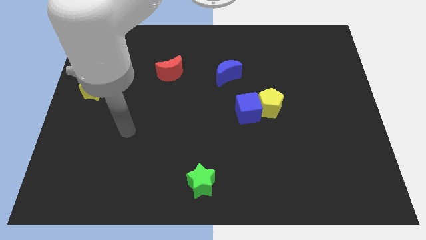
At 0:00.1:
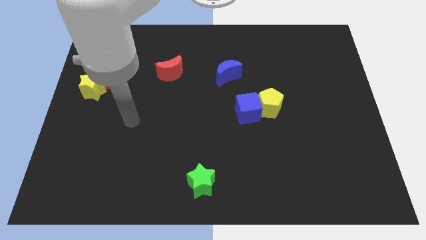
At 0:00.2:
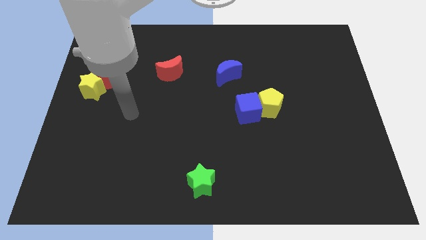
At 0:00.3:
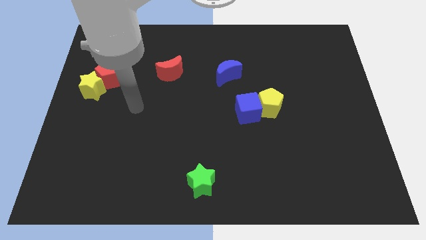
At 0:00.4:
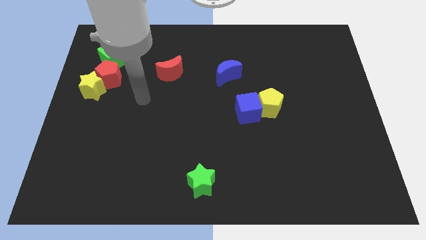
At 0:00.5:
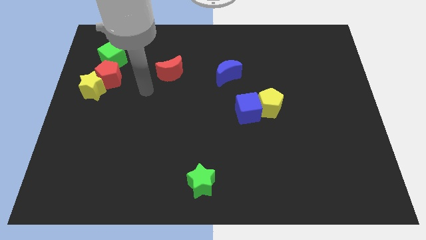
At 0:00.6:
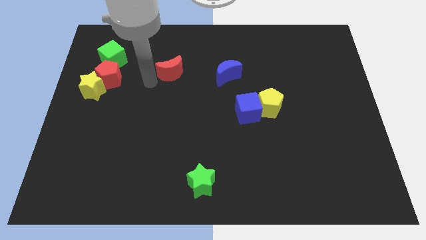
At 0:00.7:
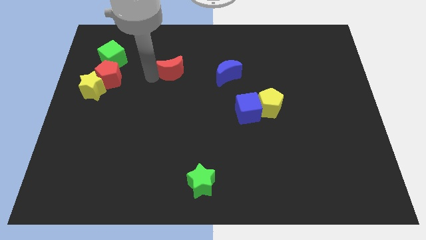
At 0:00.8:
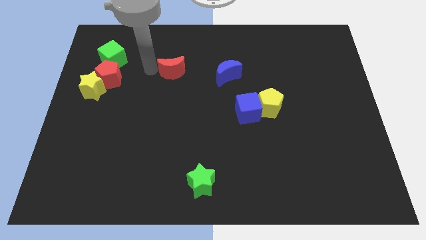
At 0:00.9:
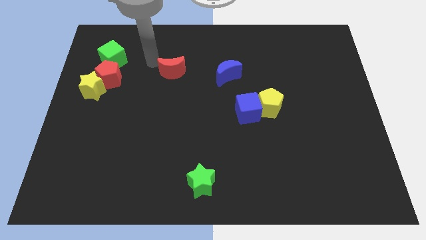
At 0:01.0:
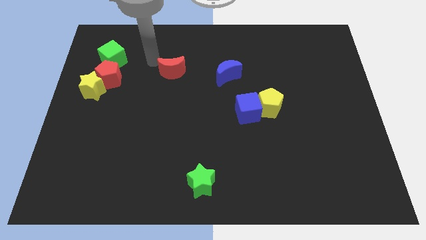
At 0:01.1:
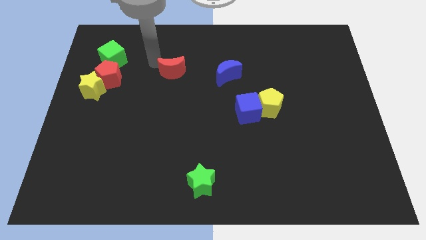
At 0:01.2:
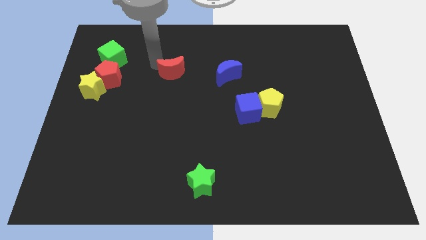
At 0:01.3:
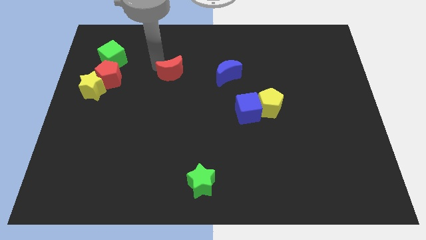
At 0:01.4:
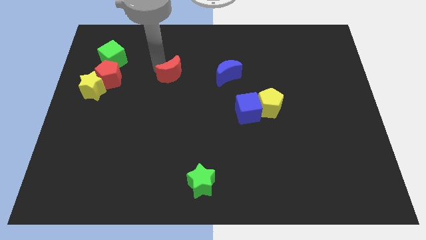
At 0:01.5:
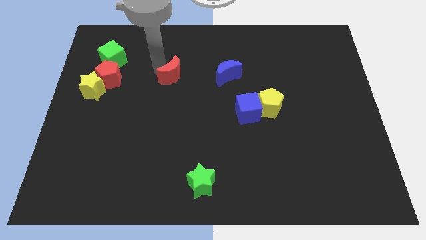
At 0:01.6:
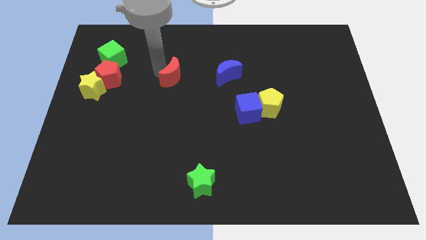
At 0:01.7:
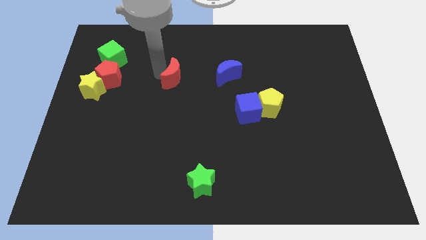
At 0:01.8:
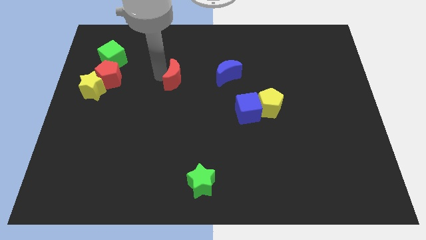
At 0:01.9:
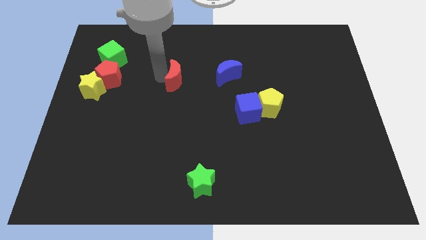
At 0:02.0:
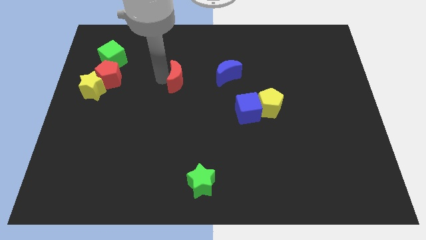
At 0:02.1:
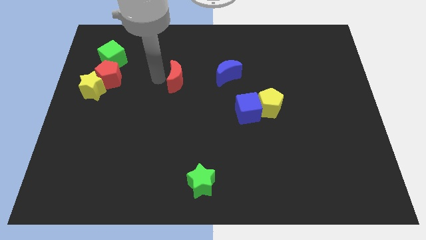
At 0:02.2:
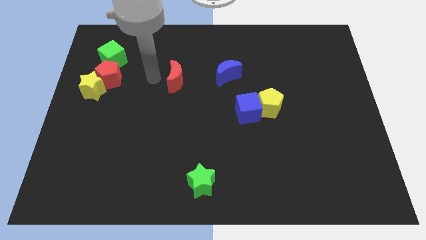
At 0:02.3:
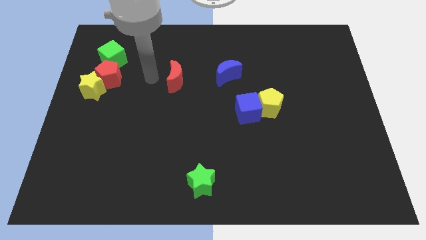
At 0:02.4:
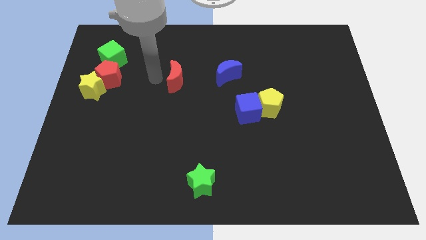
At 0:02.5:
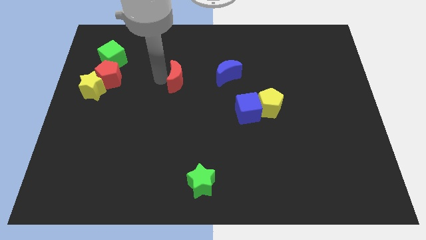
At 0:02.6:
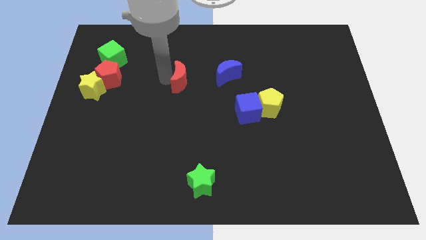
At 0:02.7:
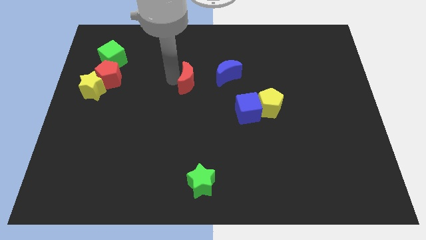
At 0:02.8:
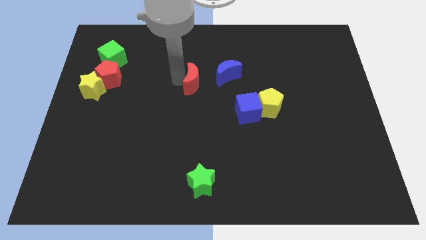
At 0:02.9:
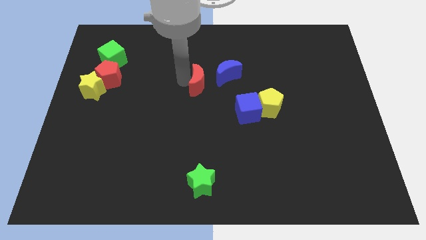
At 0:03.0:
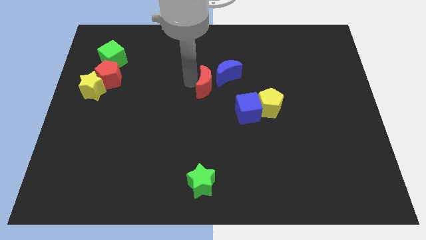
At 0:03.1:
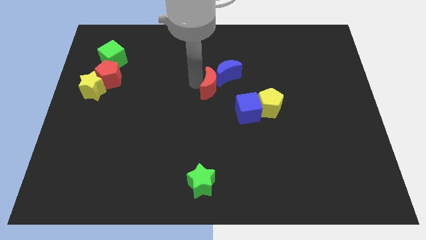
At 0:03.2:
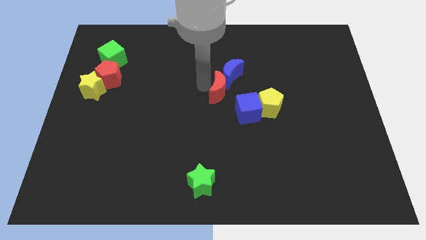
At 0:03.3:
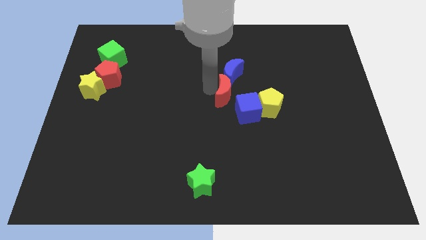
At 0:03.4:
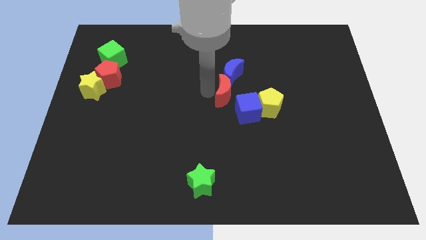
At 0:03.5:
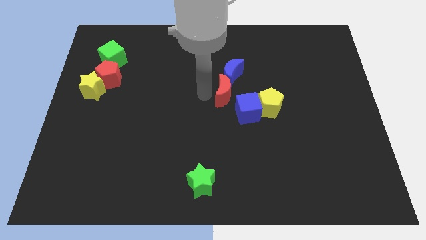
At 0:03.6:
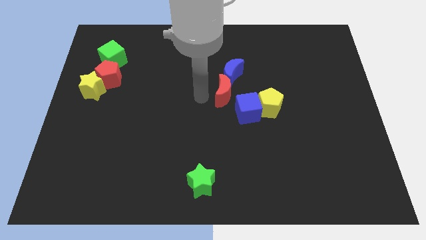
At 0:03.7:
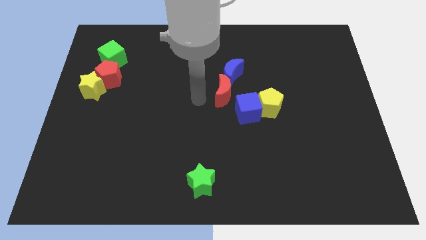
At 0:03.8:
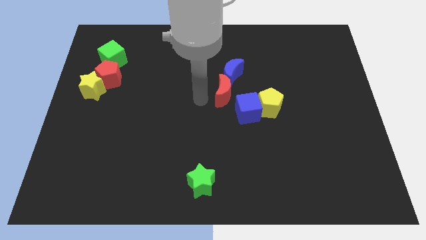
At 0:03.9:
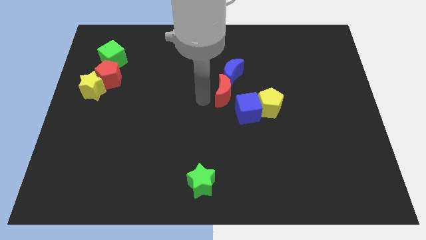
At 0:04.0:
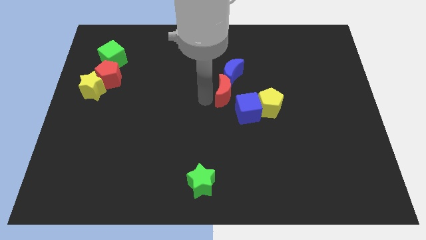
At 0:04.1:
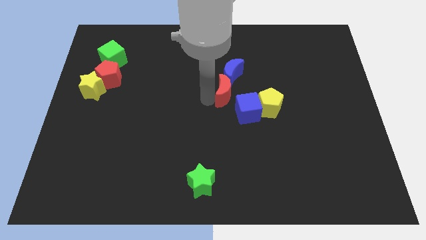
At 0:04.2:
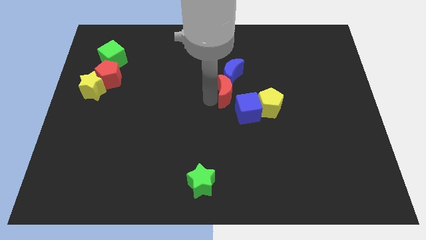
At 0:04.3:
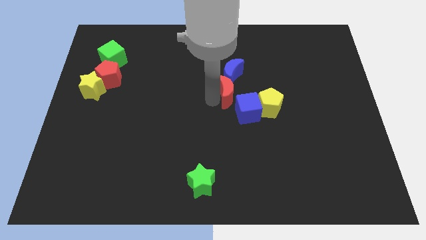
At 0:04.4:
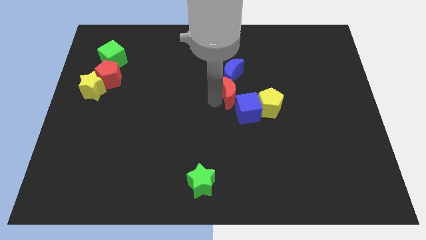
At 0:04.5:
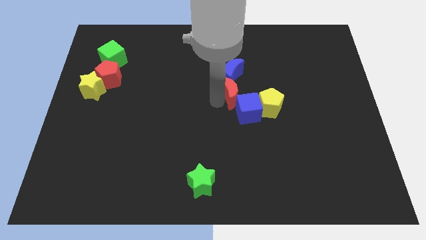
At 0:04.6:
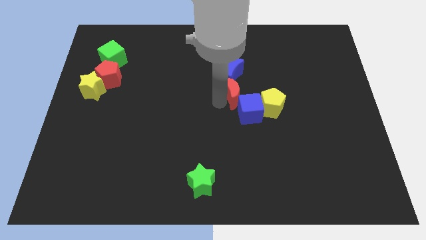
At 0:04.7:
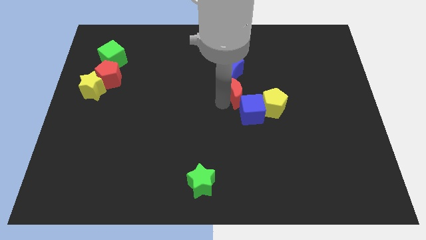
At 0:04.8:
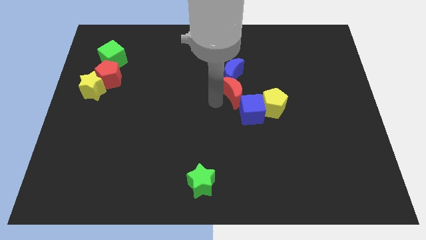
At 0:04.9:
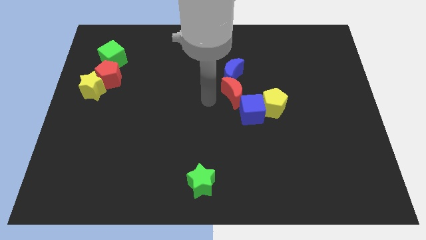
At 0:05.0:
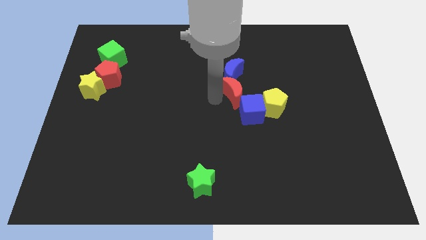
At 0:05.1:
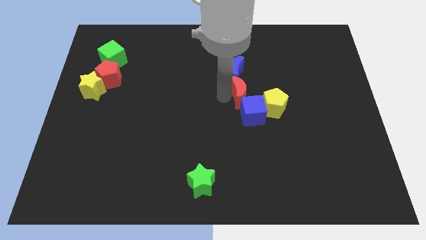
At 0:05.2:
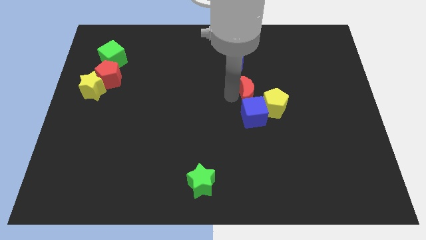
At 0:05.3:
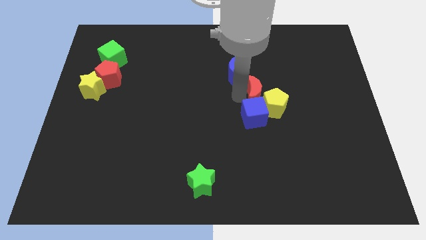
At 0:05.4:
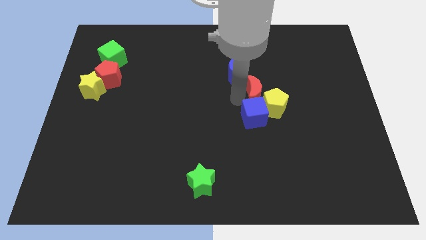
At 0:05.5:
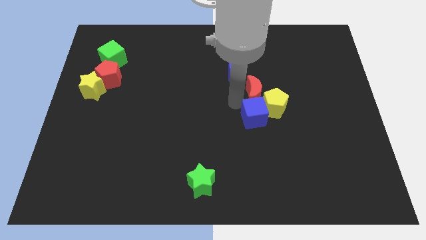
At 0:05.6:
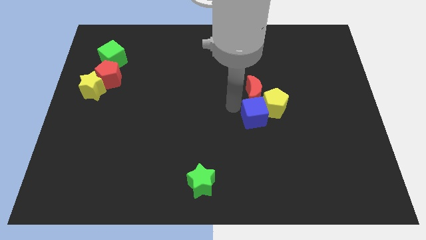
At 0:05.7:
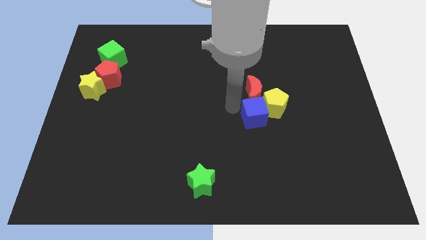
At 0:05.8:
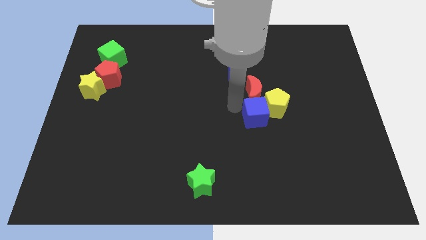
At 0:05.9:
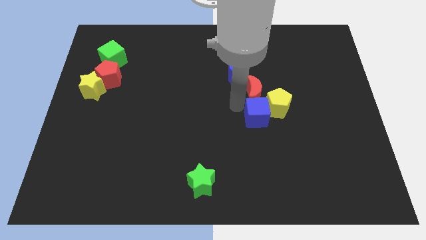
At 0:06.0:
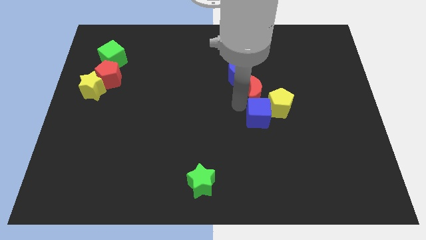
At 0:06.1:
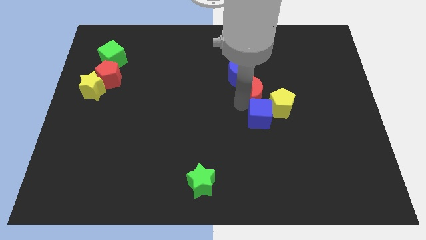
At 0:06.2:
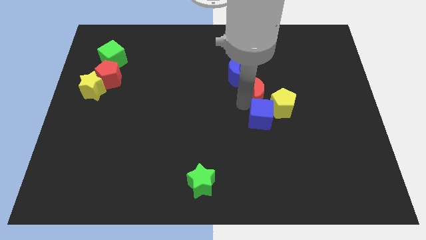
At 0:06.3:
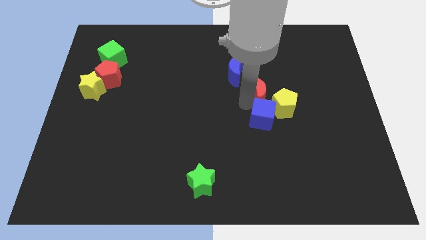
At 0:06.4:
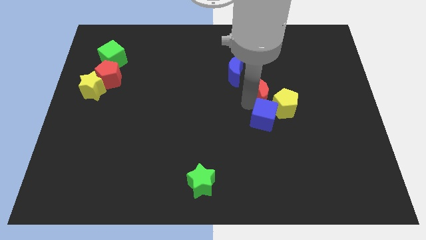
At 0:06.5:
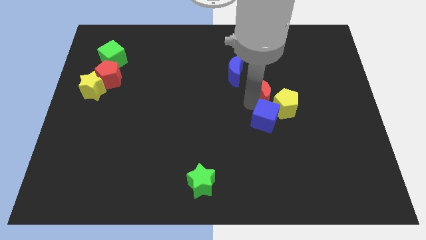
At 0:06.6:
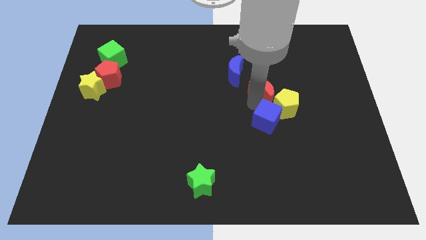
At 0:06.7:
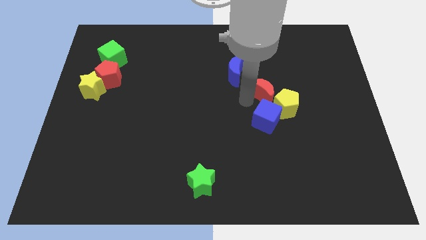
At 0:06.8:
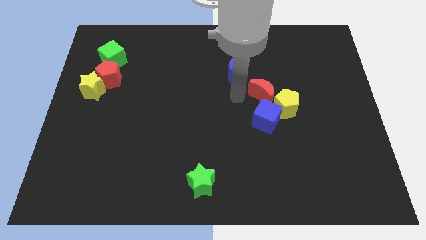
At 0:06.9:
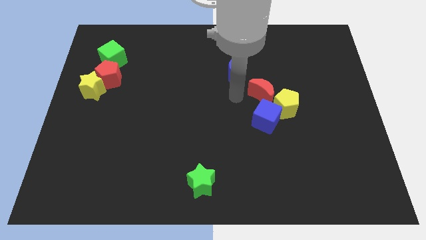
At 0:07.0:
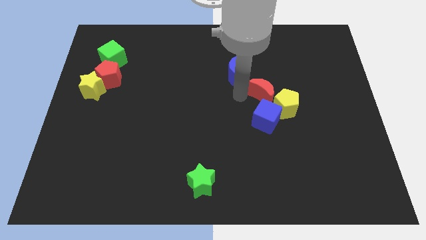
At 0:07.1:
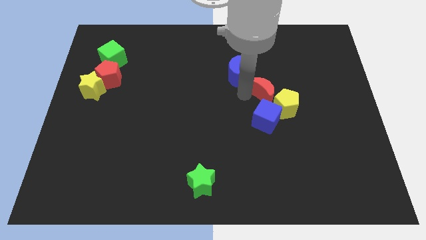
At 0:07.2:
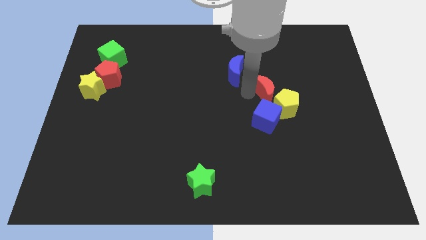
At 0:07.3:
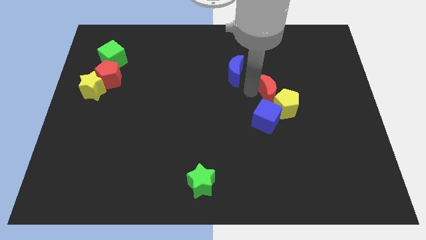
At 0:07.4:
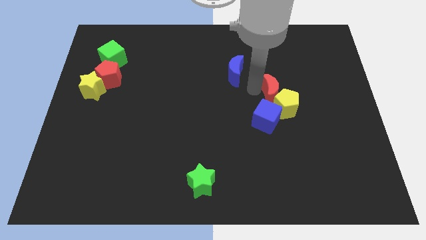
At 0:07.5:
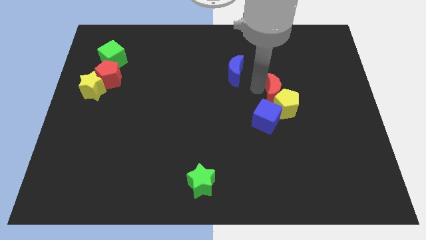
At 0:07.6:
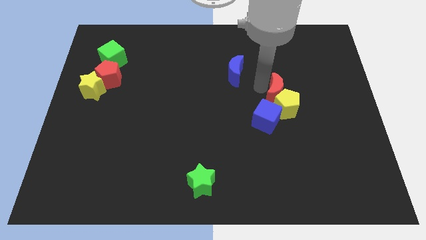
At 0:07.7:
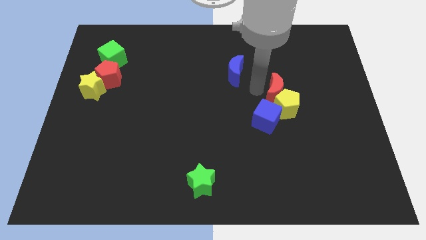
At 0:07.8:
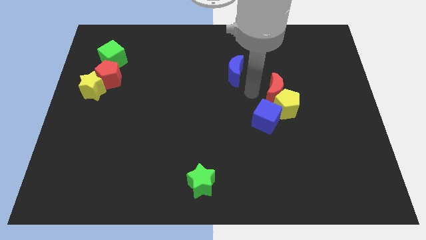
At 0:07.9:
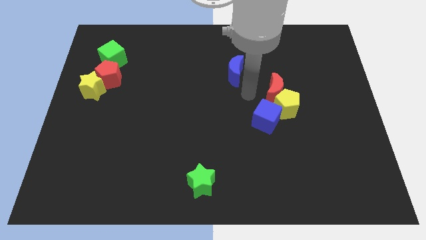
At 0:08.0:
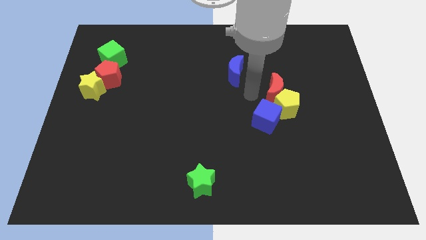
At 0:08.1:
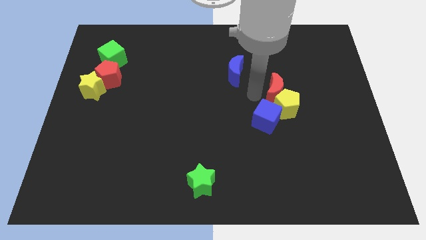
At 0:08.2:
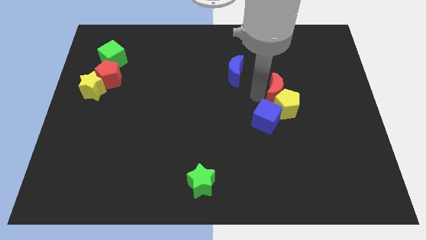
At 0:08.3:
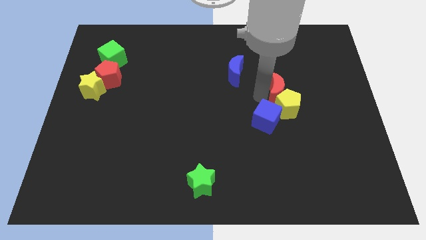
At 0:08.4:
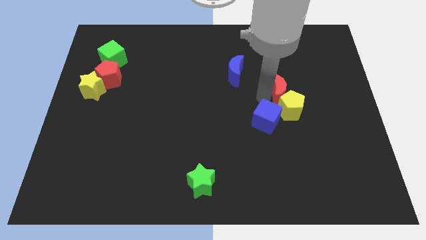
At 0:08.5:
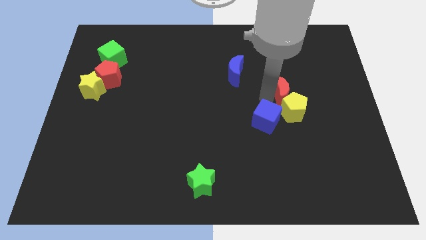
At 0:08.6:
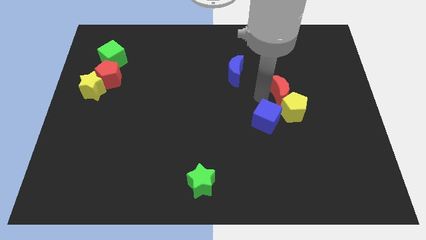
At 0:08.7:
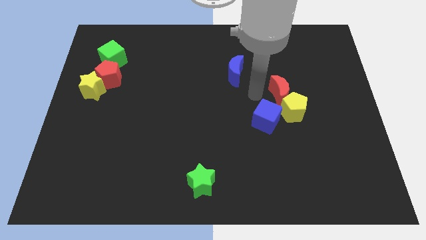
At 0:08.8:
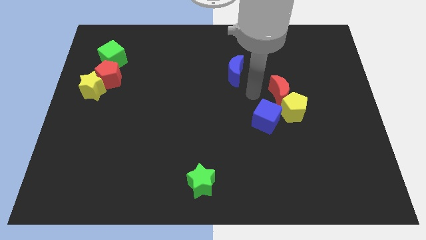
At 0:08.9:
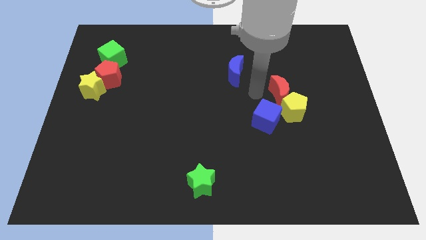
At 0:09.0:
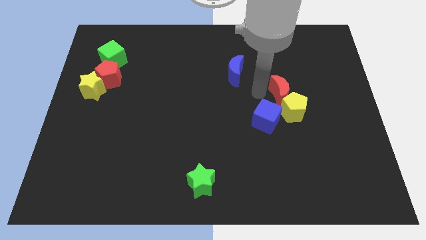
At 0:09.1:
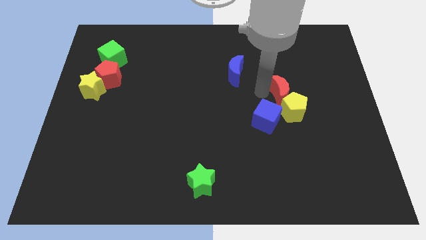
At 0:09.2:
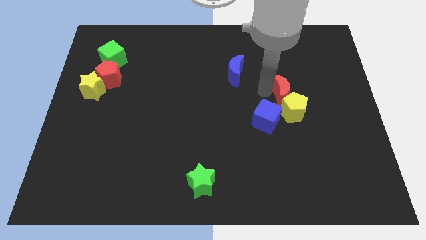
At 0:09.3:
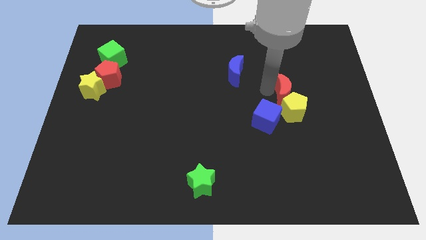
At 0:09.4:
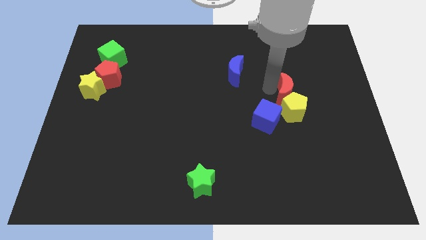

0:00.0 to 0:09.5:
slide the red moon diagonally up and to the right of the yellow pentagon
